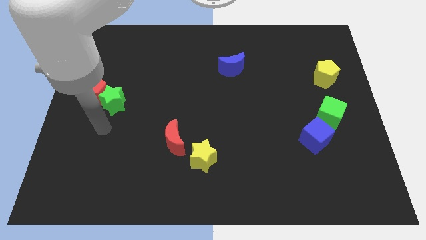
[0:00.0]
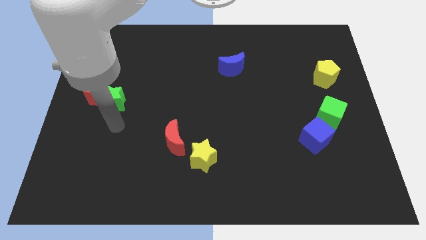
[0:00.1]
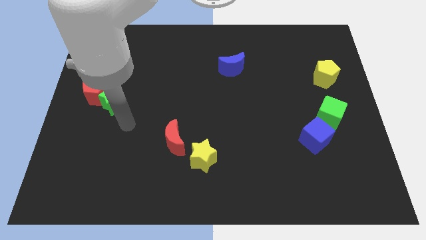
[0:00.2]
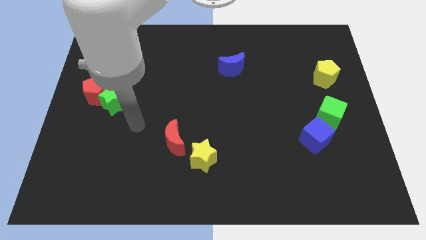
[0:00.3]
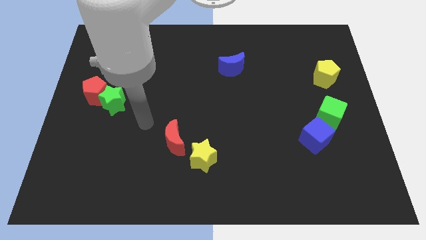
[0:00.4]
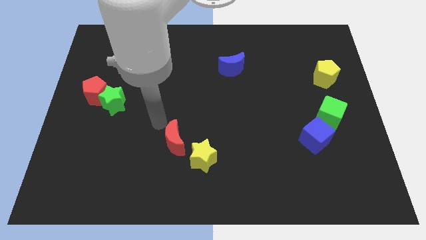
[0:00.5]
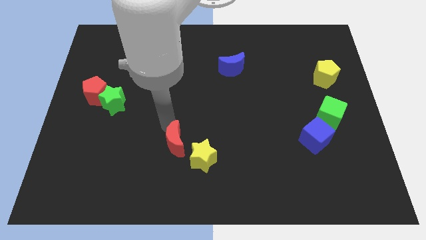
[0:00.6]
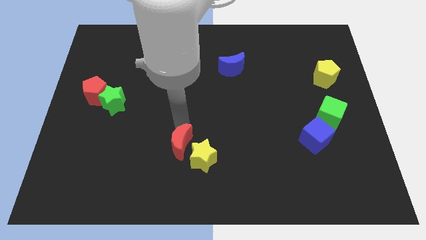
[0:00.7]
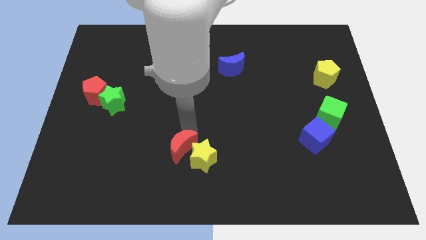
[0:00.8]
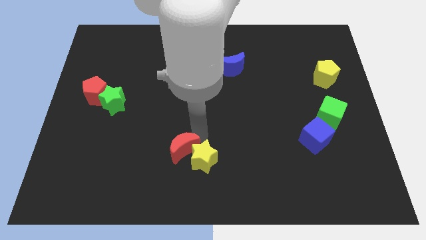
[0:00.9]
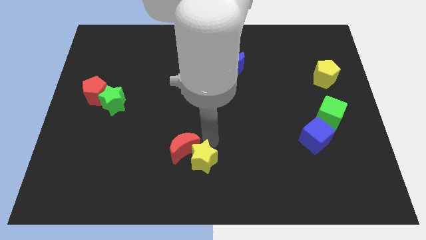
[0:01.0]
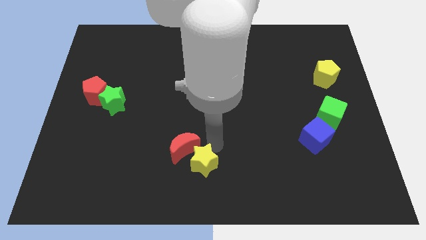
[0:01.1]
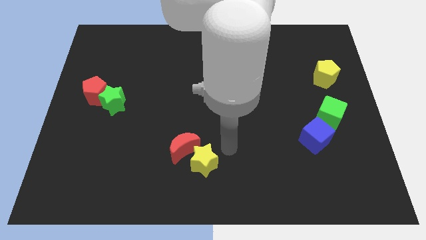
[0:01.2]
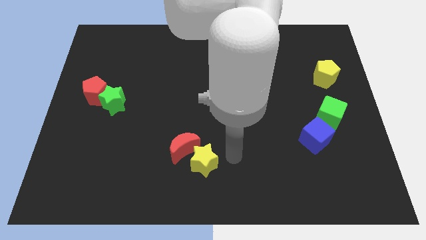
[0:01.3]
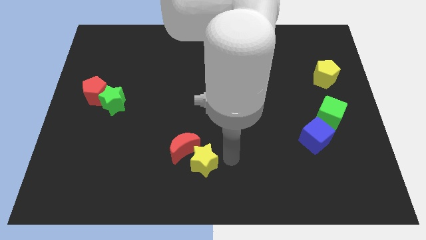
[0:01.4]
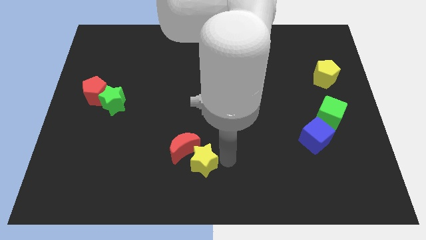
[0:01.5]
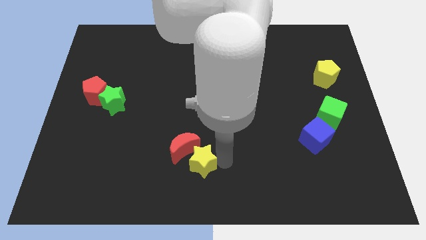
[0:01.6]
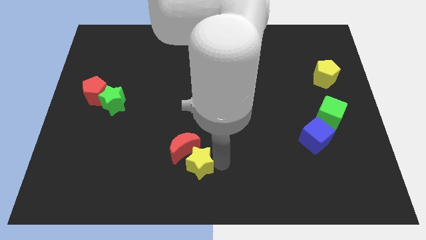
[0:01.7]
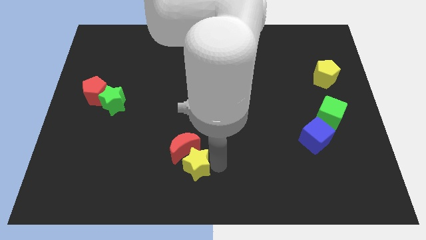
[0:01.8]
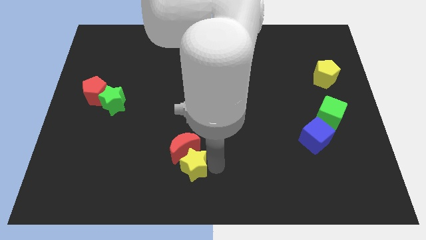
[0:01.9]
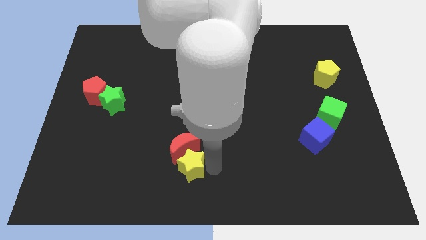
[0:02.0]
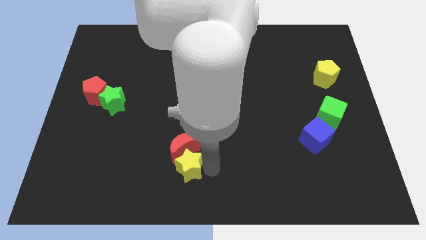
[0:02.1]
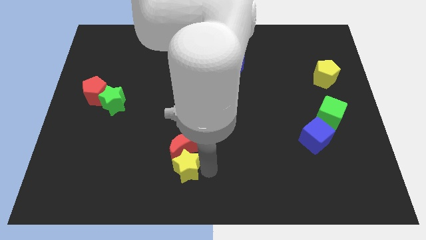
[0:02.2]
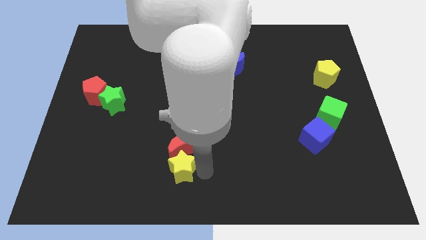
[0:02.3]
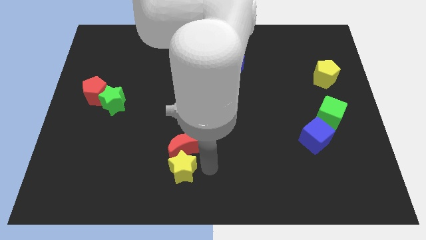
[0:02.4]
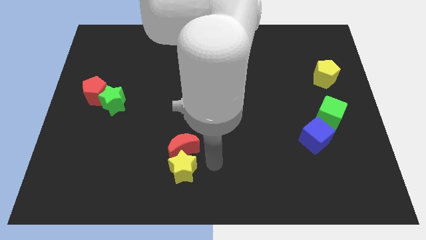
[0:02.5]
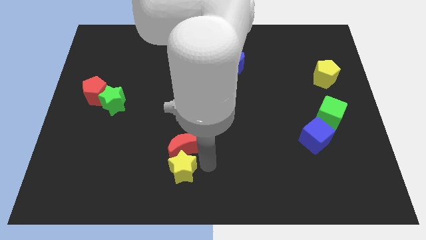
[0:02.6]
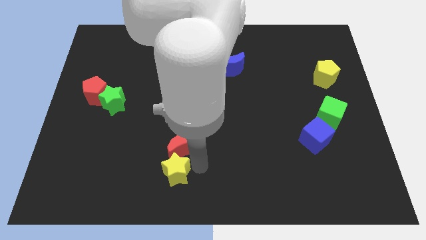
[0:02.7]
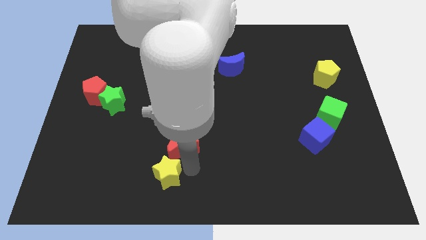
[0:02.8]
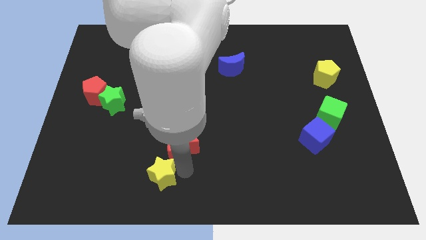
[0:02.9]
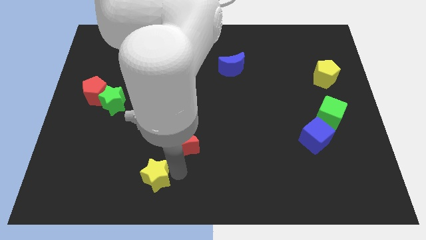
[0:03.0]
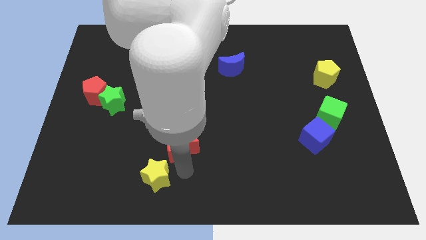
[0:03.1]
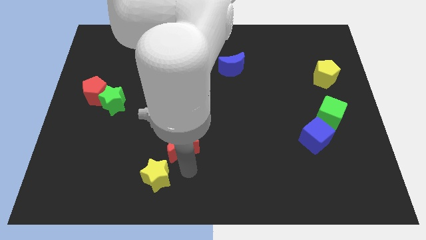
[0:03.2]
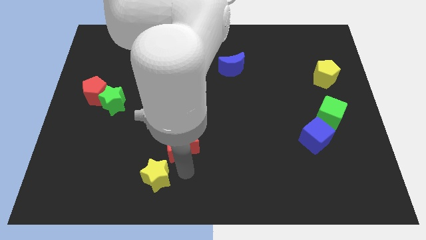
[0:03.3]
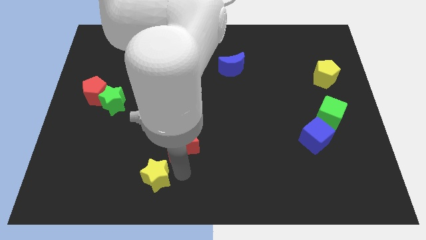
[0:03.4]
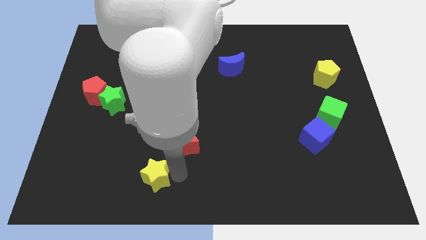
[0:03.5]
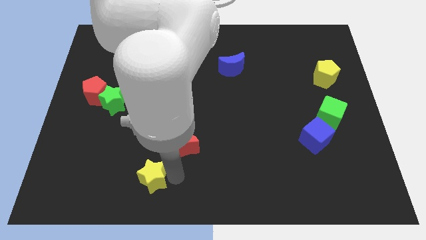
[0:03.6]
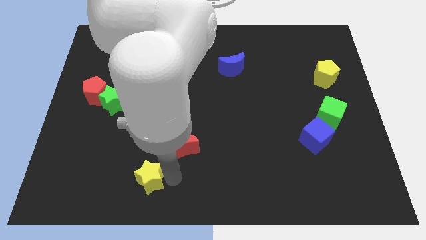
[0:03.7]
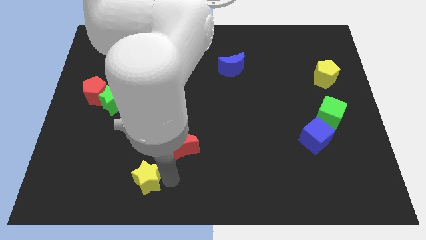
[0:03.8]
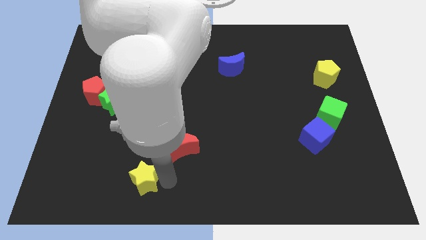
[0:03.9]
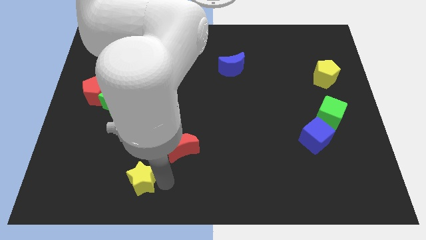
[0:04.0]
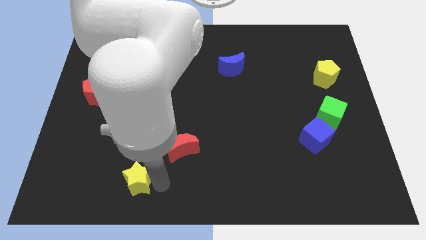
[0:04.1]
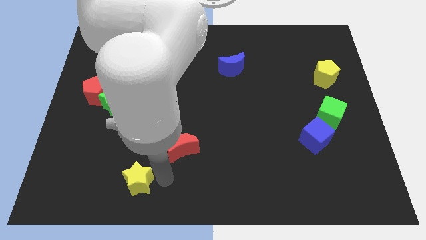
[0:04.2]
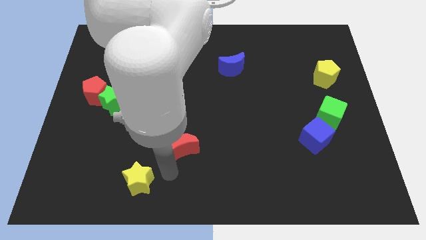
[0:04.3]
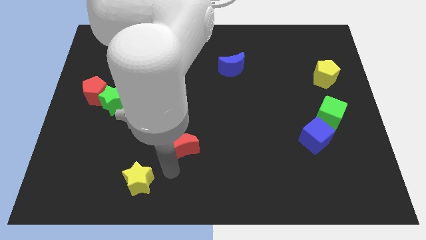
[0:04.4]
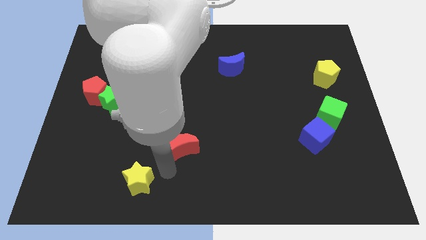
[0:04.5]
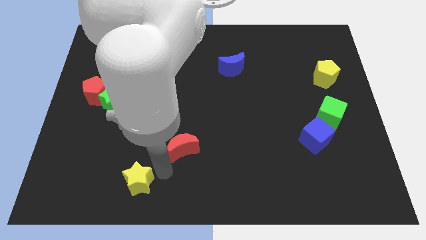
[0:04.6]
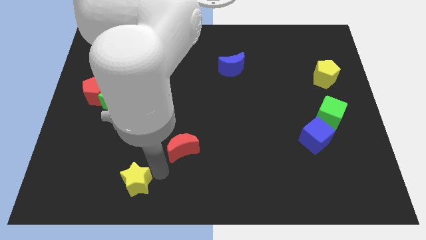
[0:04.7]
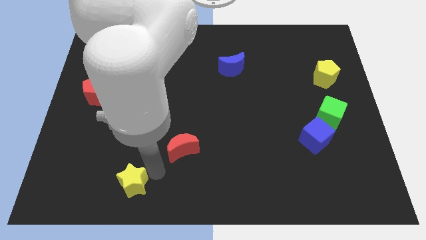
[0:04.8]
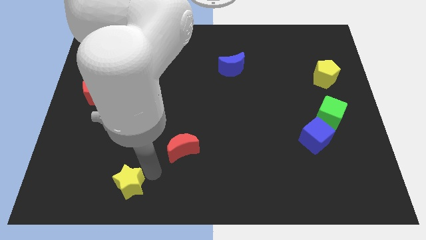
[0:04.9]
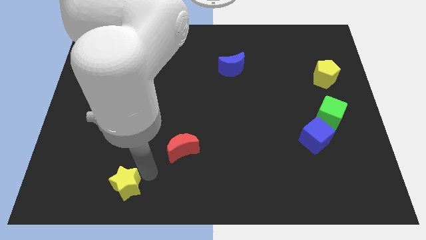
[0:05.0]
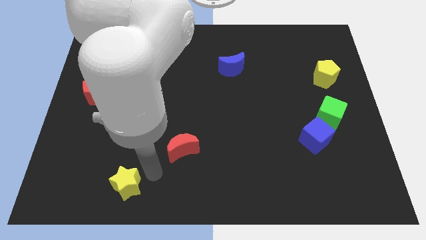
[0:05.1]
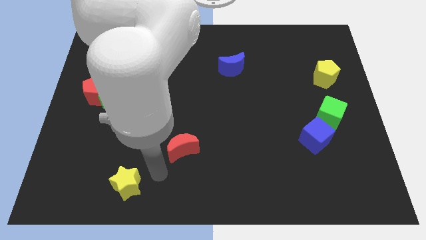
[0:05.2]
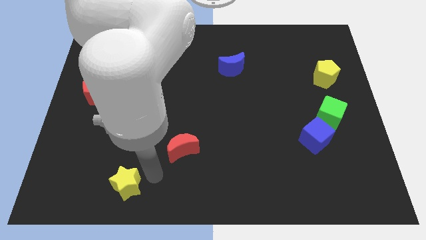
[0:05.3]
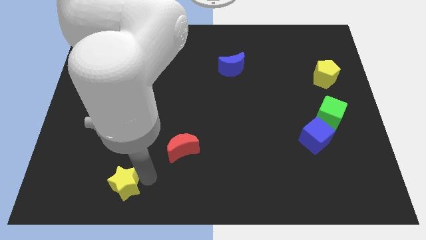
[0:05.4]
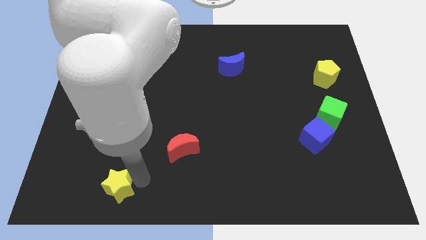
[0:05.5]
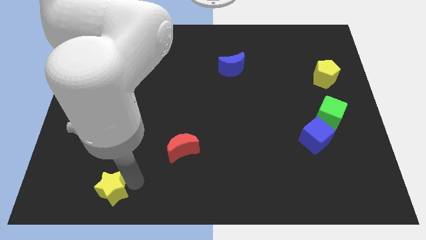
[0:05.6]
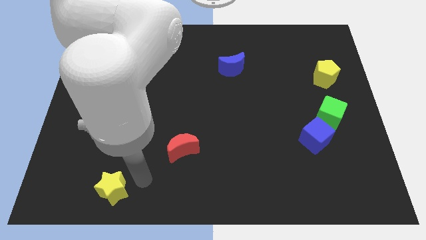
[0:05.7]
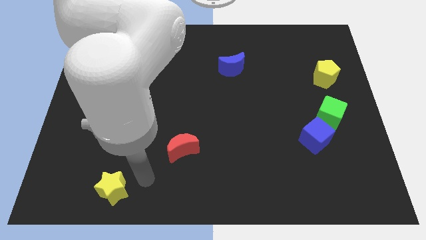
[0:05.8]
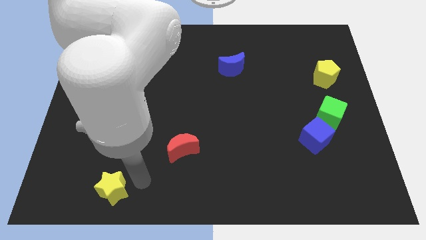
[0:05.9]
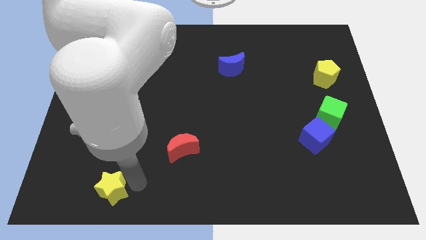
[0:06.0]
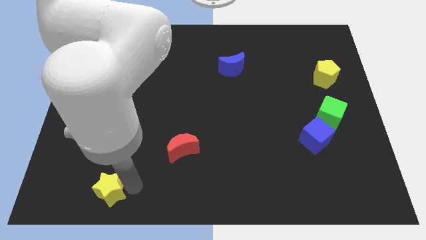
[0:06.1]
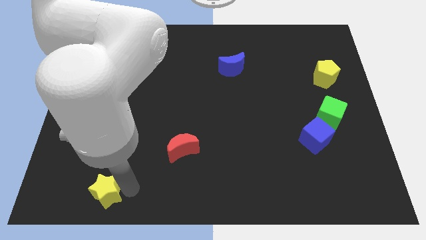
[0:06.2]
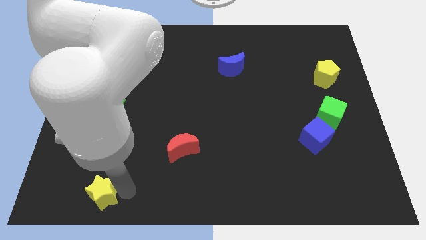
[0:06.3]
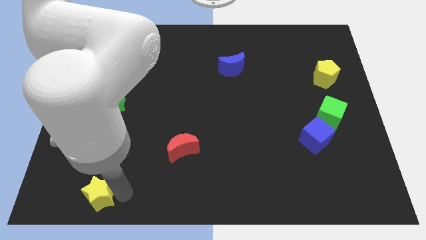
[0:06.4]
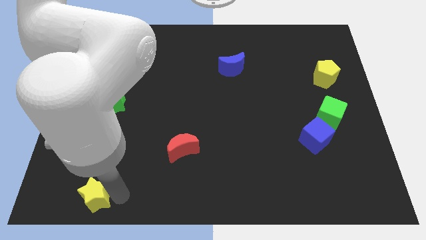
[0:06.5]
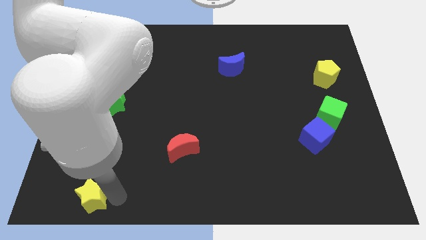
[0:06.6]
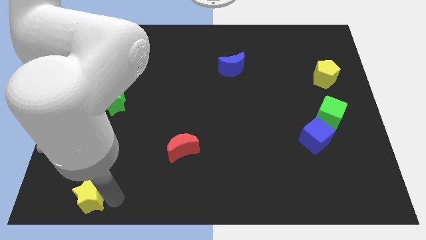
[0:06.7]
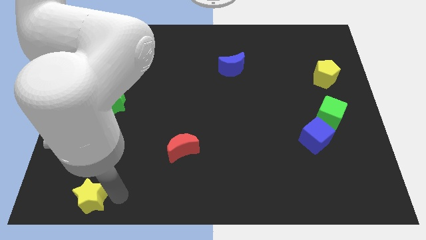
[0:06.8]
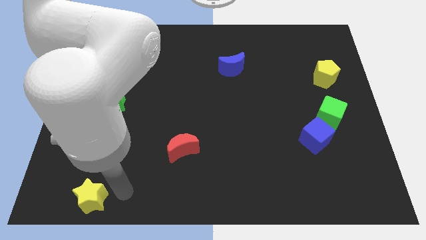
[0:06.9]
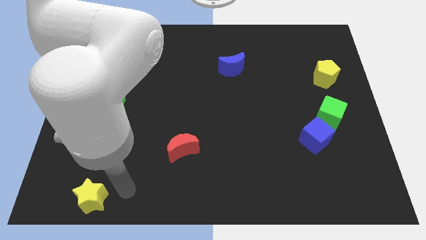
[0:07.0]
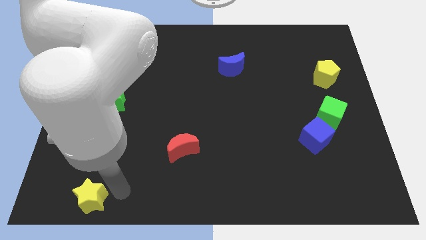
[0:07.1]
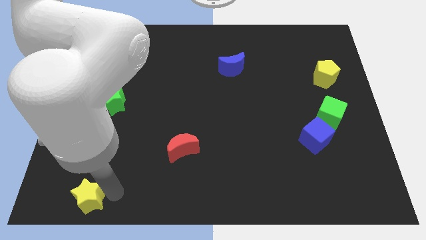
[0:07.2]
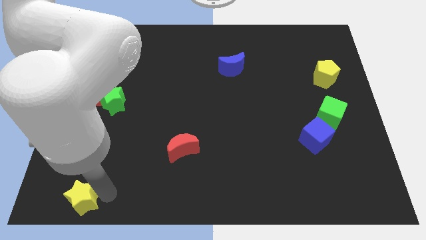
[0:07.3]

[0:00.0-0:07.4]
put the yellow star to the bottom left corner
